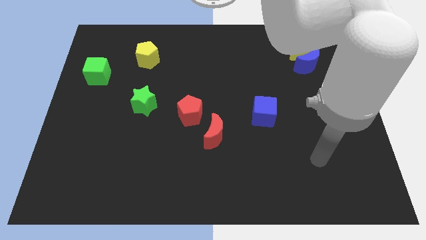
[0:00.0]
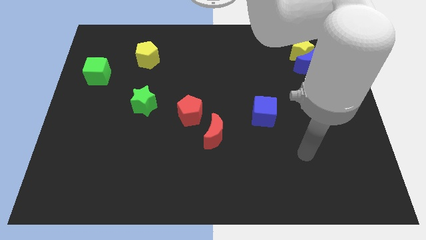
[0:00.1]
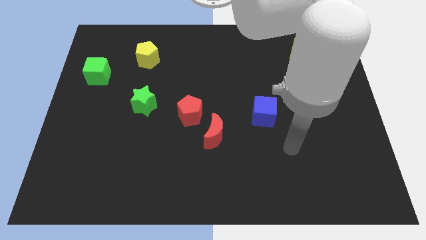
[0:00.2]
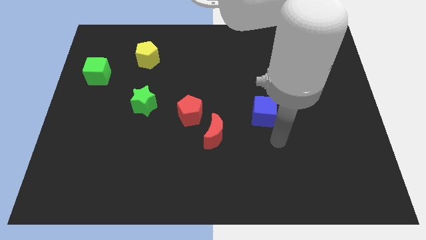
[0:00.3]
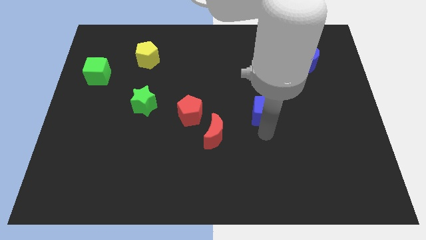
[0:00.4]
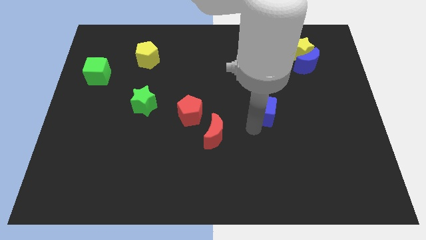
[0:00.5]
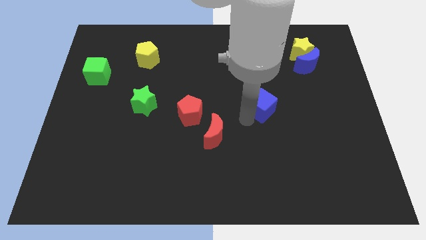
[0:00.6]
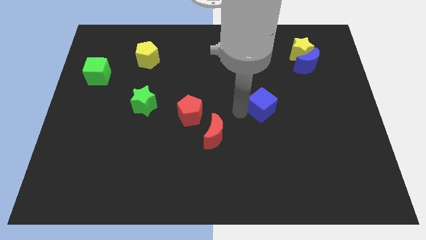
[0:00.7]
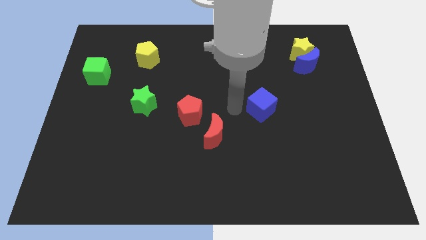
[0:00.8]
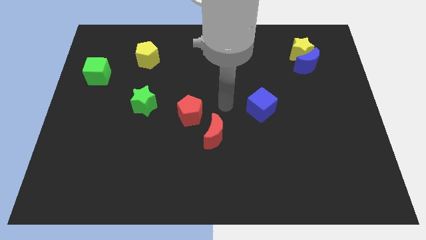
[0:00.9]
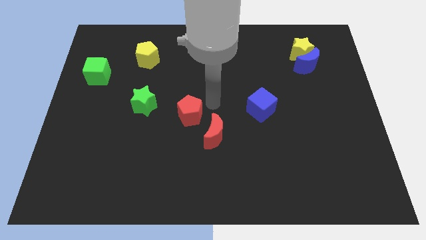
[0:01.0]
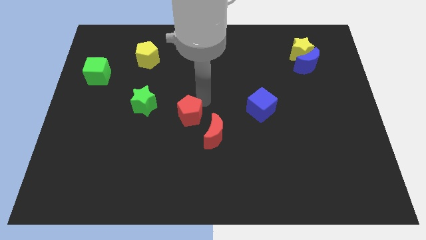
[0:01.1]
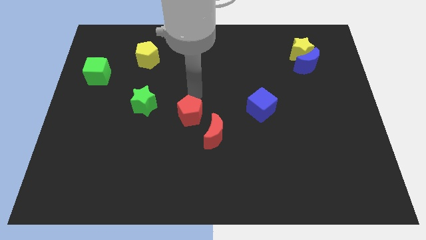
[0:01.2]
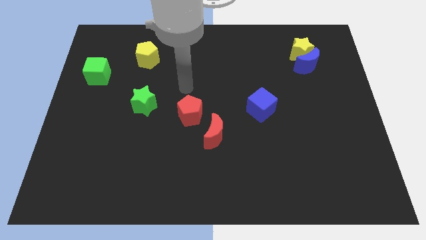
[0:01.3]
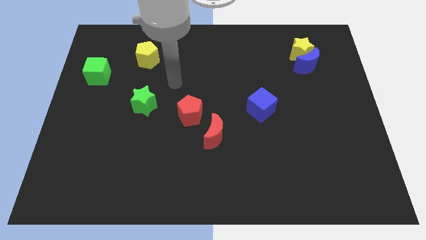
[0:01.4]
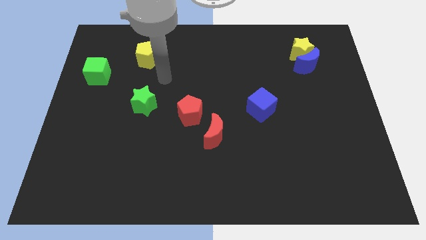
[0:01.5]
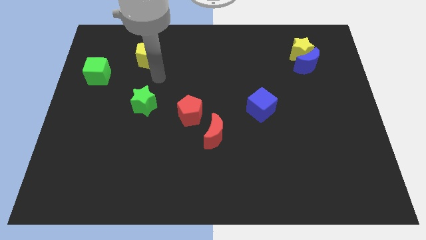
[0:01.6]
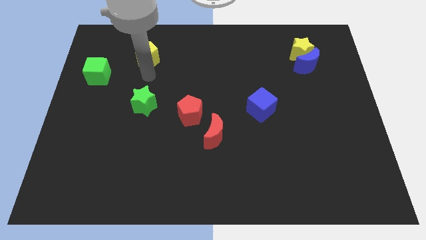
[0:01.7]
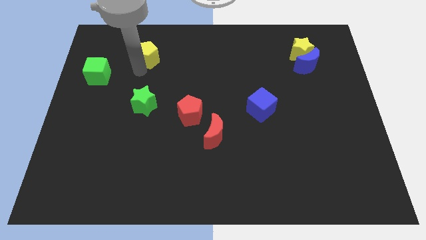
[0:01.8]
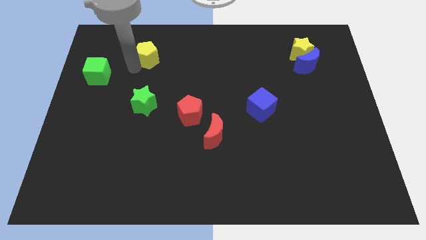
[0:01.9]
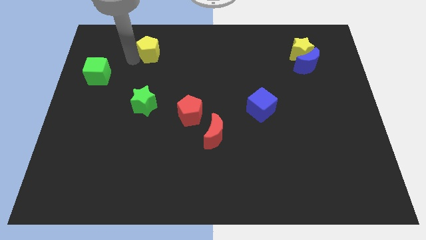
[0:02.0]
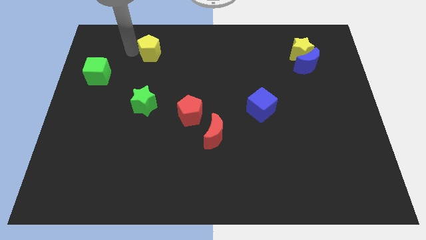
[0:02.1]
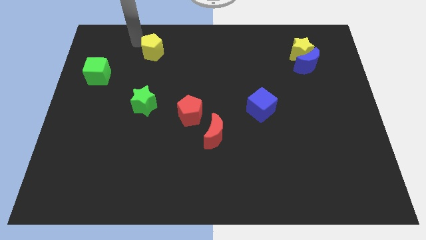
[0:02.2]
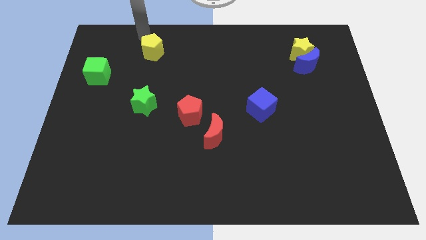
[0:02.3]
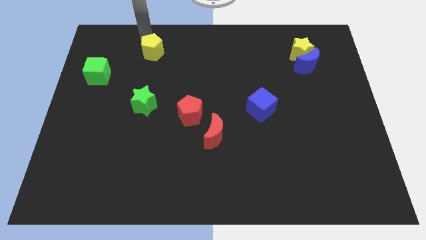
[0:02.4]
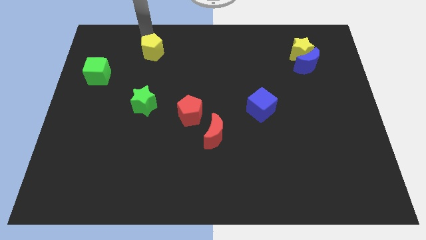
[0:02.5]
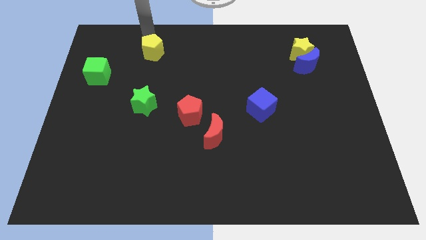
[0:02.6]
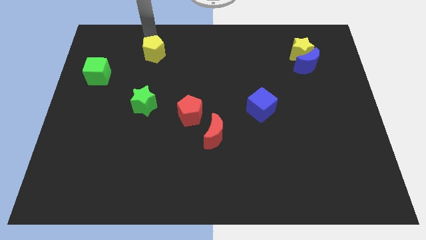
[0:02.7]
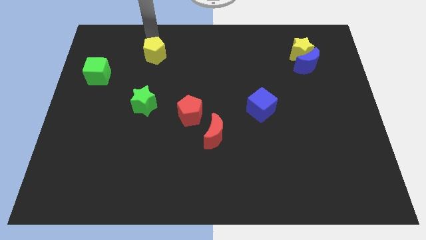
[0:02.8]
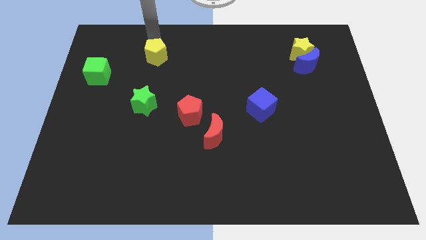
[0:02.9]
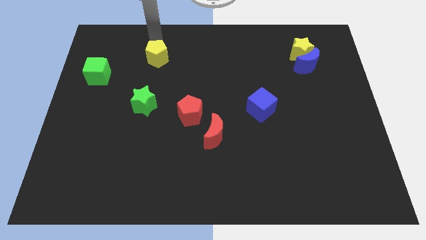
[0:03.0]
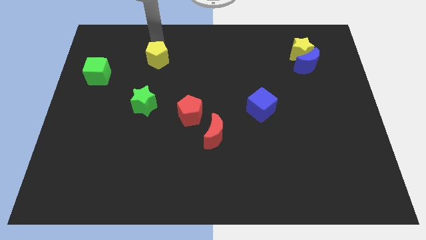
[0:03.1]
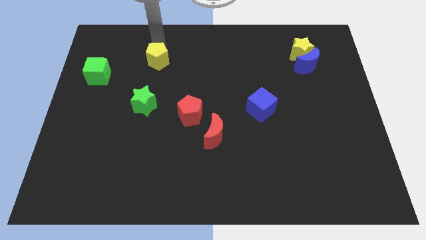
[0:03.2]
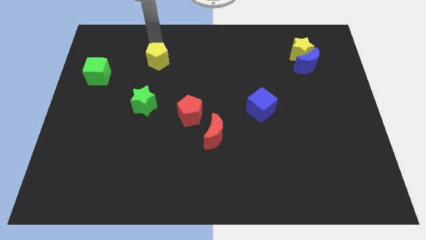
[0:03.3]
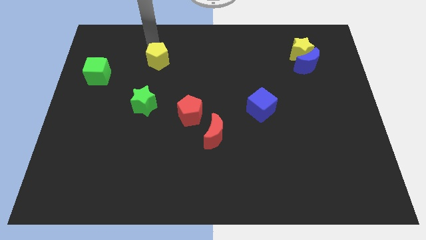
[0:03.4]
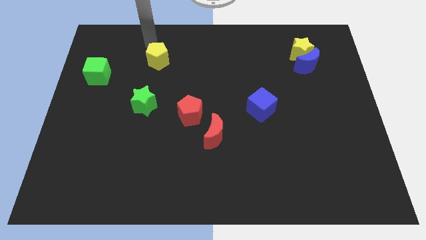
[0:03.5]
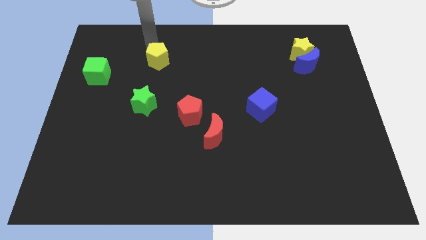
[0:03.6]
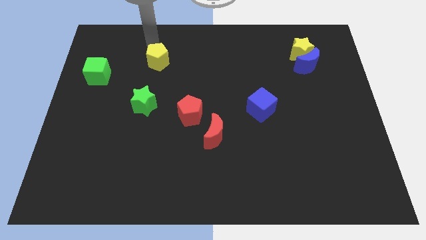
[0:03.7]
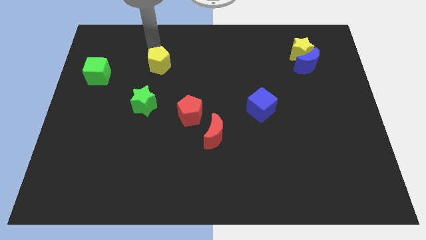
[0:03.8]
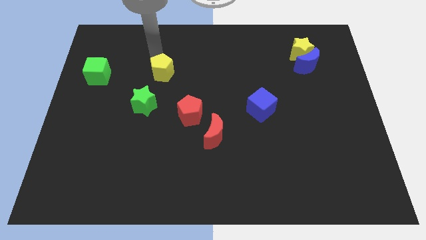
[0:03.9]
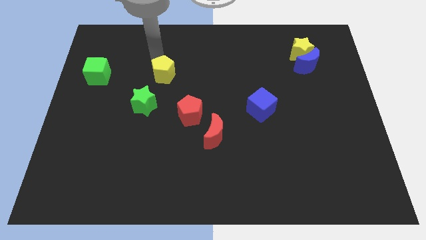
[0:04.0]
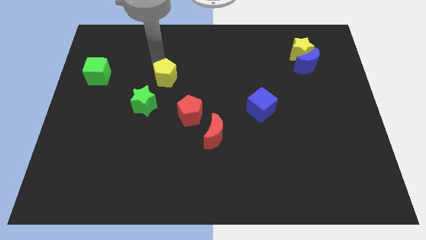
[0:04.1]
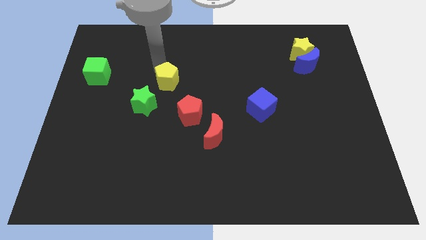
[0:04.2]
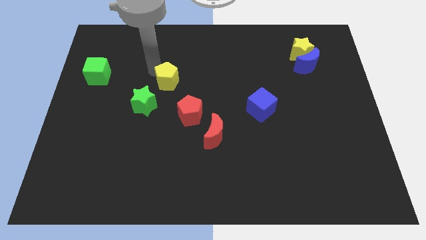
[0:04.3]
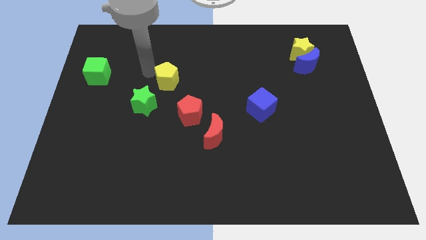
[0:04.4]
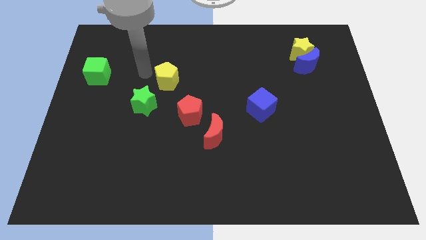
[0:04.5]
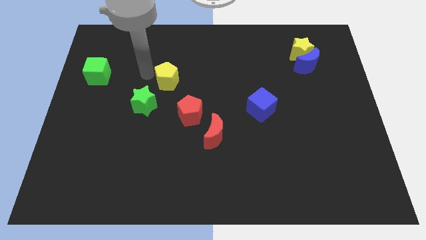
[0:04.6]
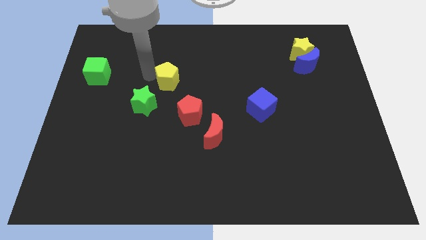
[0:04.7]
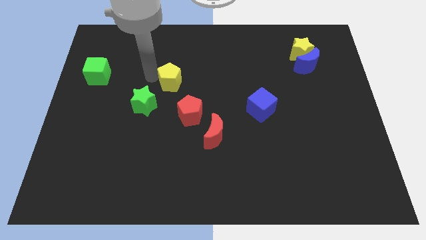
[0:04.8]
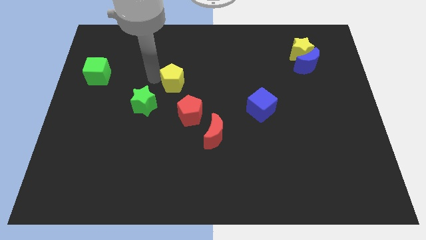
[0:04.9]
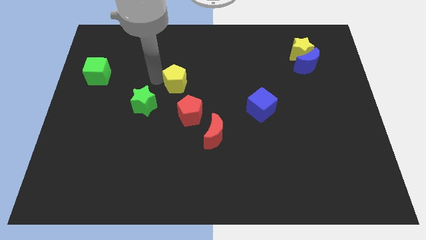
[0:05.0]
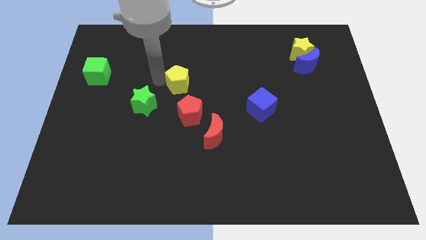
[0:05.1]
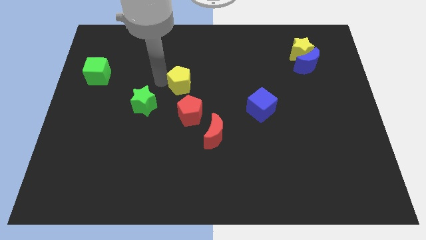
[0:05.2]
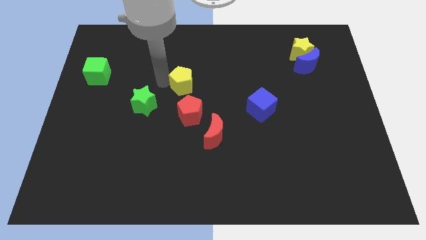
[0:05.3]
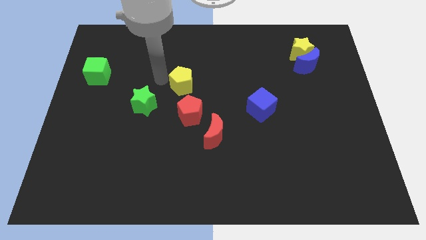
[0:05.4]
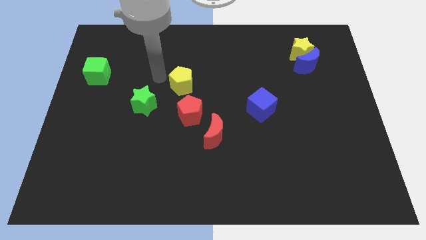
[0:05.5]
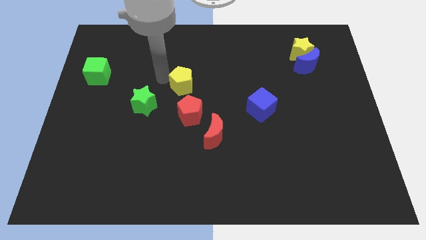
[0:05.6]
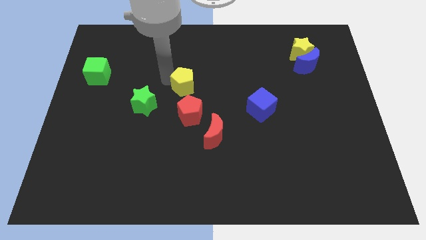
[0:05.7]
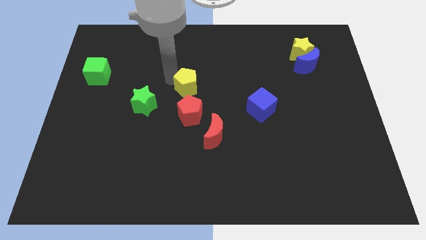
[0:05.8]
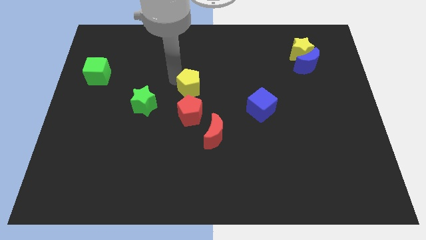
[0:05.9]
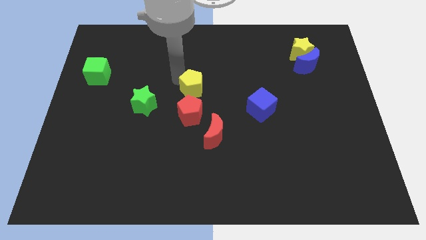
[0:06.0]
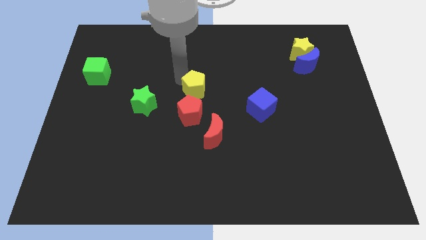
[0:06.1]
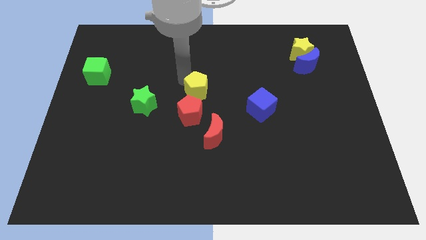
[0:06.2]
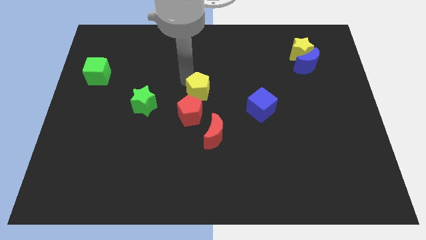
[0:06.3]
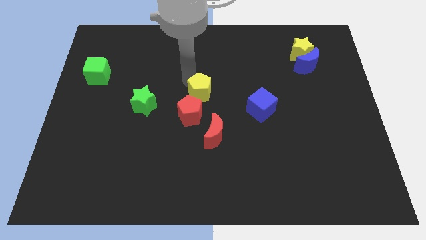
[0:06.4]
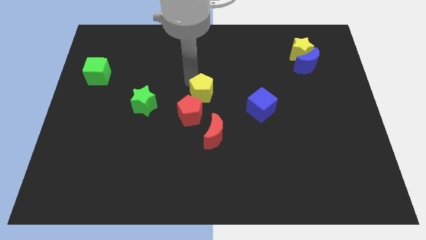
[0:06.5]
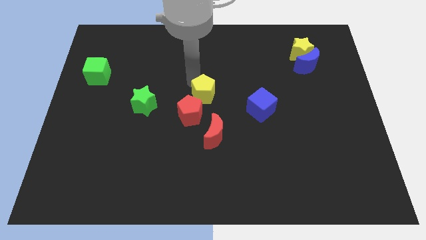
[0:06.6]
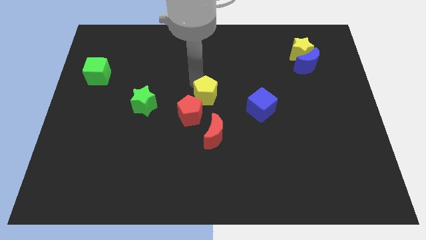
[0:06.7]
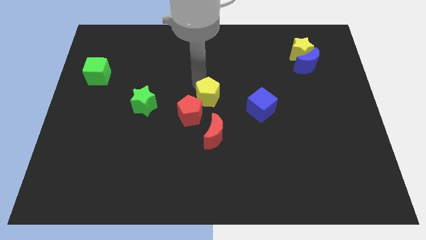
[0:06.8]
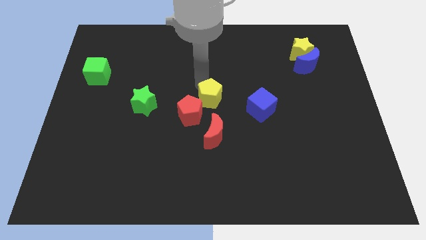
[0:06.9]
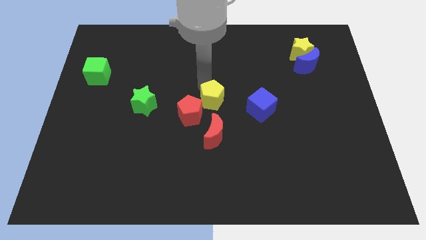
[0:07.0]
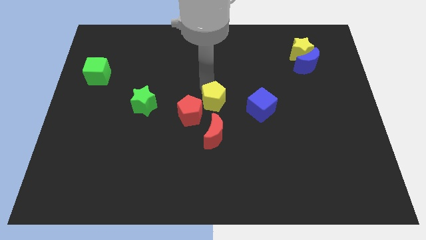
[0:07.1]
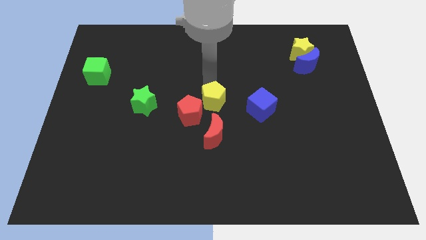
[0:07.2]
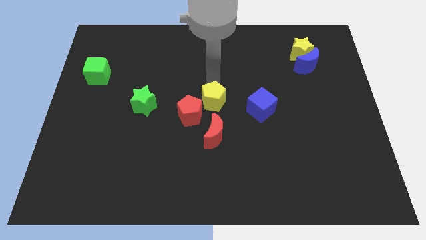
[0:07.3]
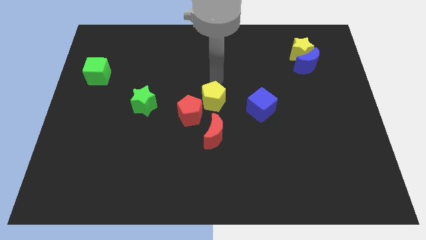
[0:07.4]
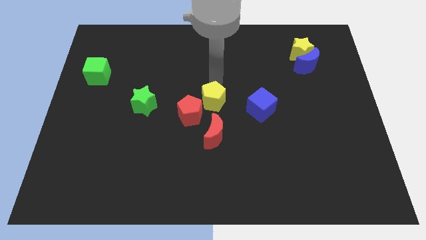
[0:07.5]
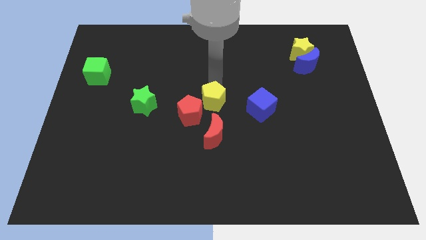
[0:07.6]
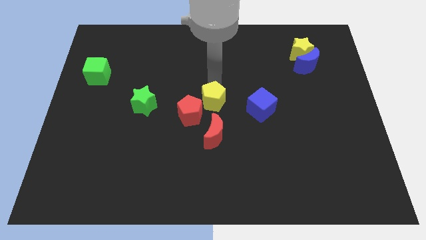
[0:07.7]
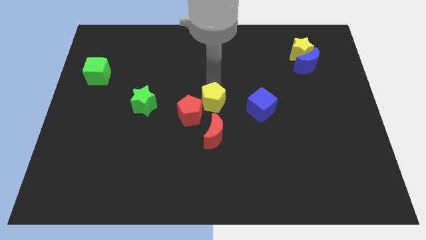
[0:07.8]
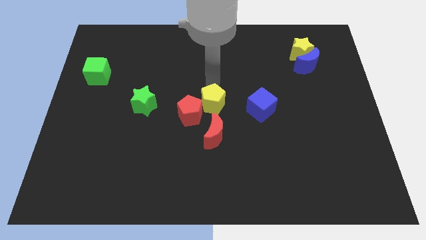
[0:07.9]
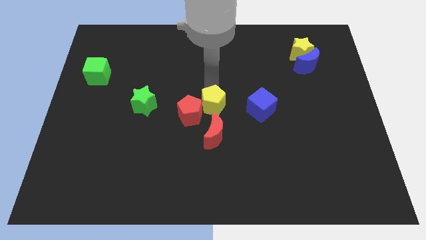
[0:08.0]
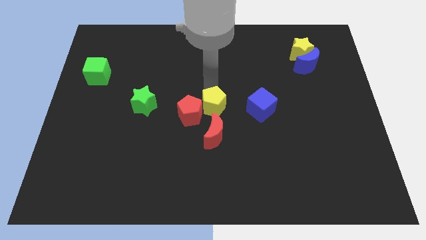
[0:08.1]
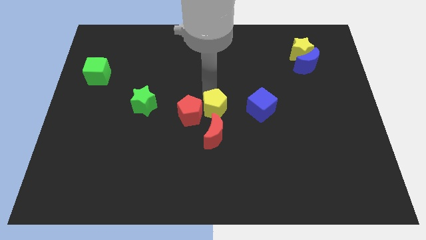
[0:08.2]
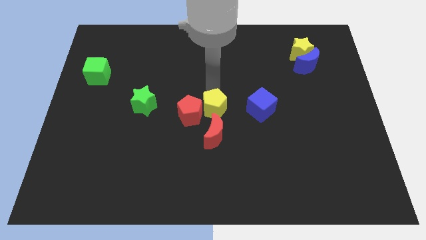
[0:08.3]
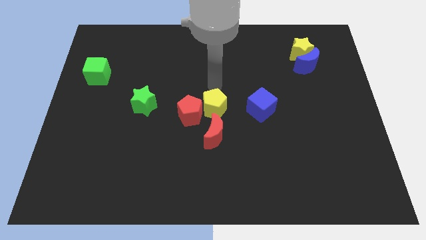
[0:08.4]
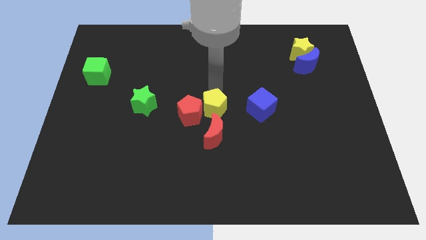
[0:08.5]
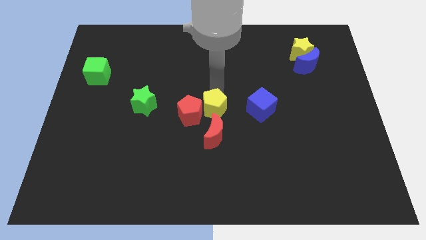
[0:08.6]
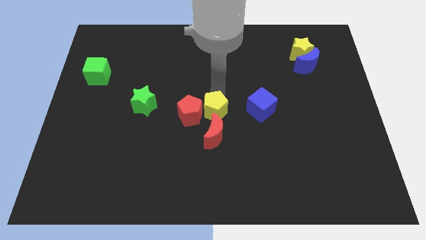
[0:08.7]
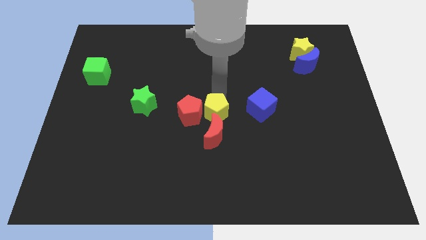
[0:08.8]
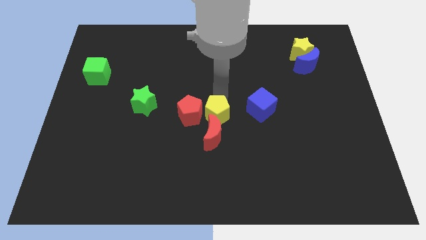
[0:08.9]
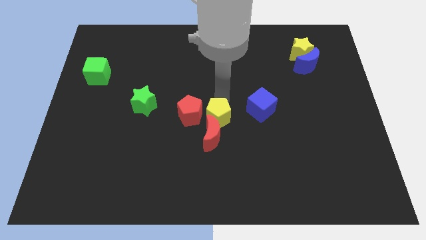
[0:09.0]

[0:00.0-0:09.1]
slide the yellow pentagon close to the red moon
